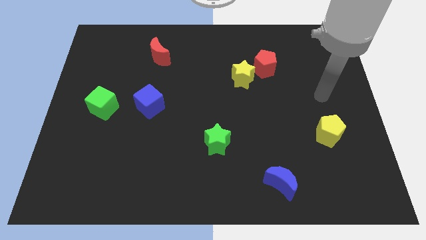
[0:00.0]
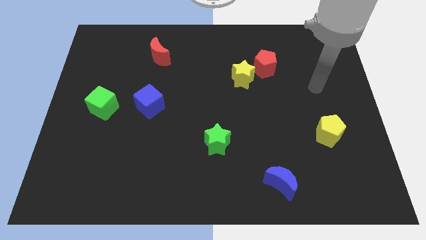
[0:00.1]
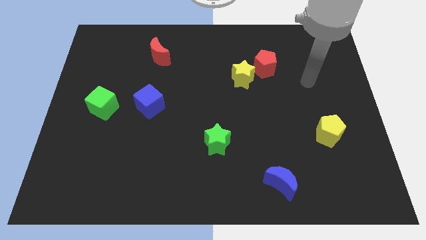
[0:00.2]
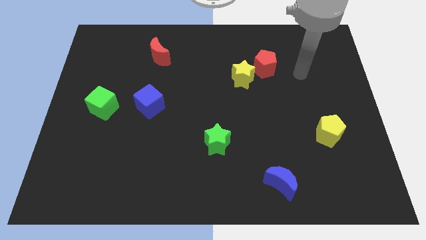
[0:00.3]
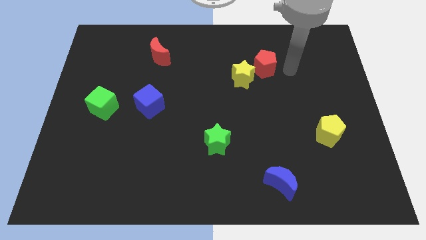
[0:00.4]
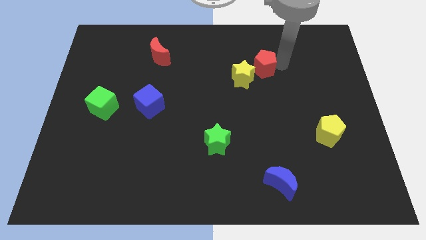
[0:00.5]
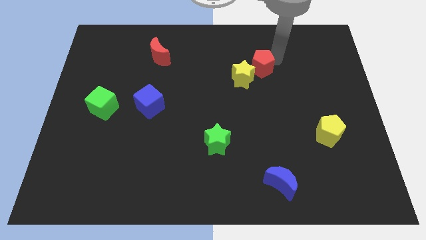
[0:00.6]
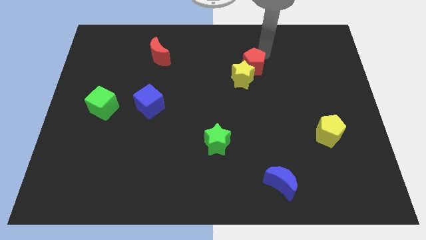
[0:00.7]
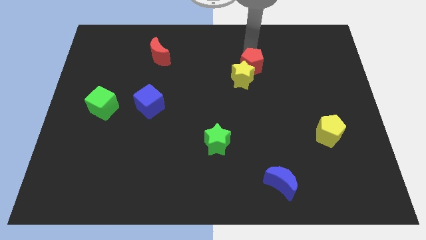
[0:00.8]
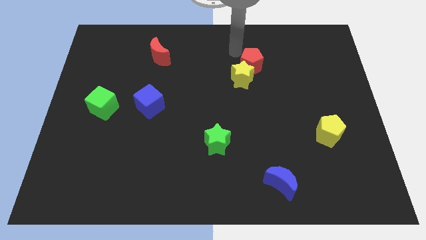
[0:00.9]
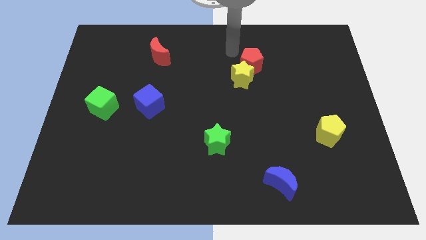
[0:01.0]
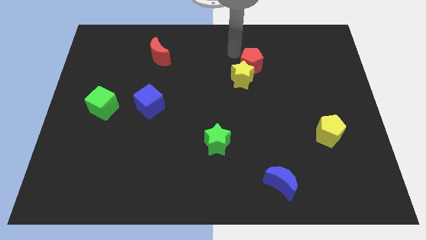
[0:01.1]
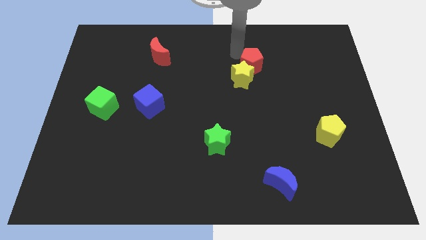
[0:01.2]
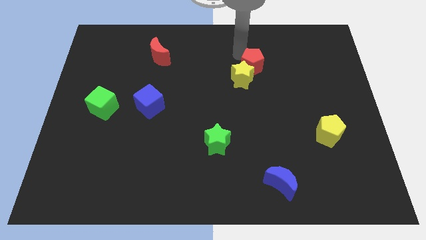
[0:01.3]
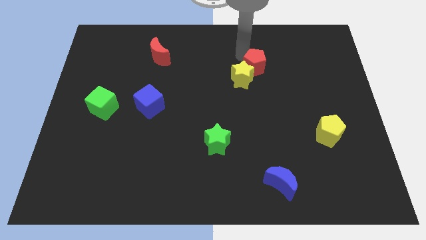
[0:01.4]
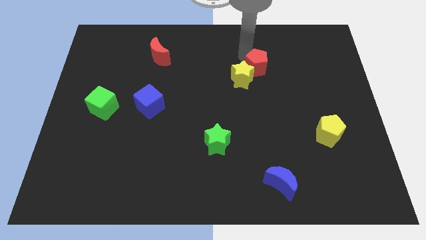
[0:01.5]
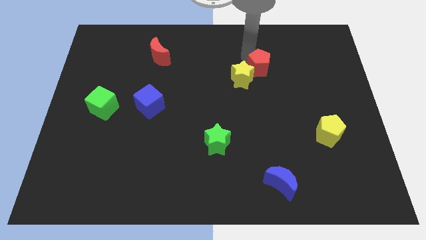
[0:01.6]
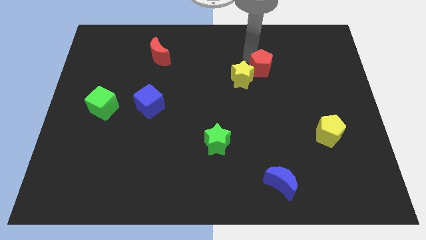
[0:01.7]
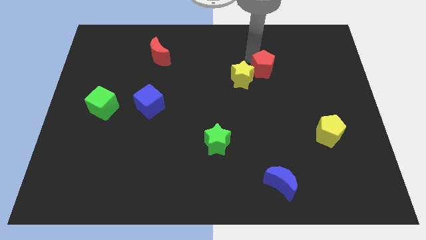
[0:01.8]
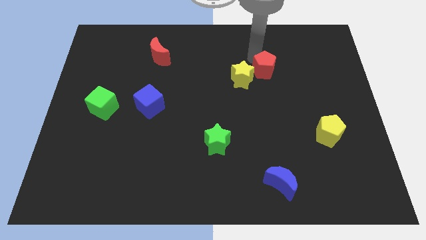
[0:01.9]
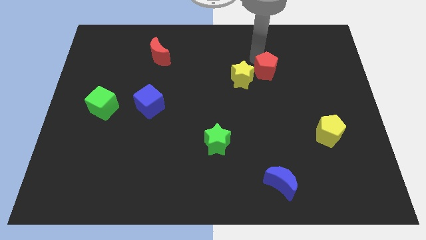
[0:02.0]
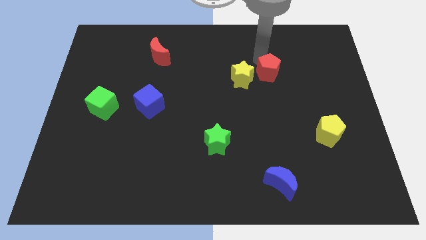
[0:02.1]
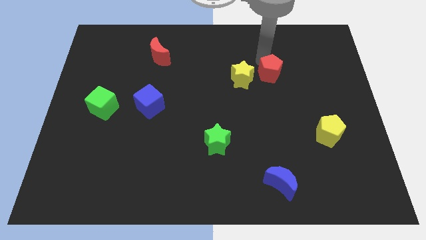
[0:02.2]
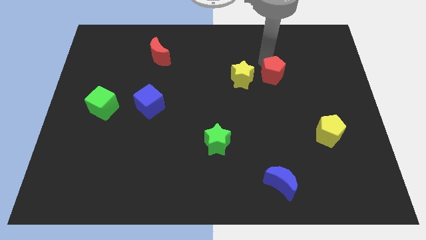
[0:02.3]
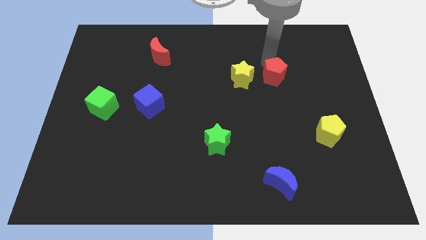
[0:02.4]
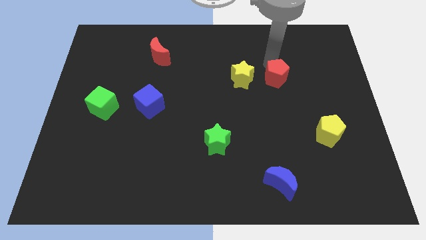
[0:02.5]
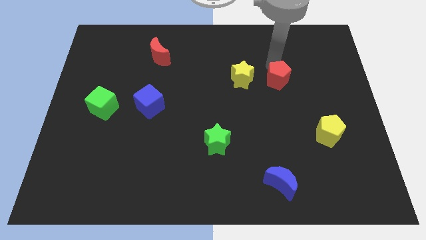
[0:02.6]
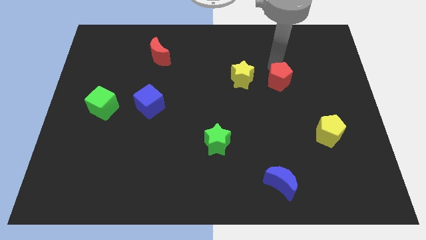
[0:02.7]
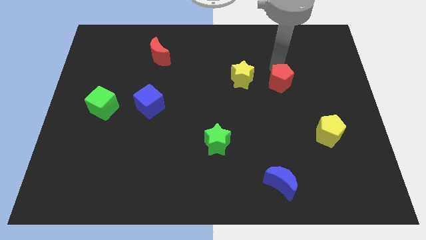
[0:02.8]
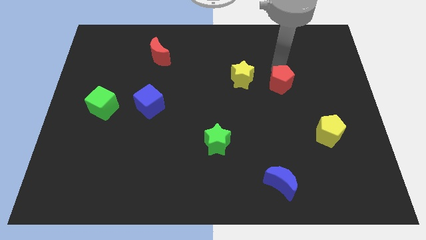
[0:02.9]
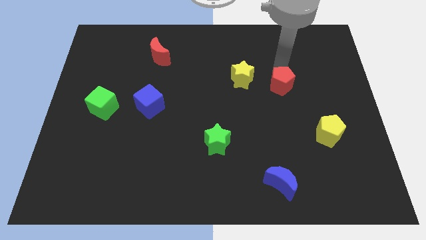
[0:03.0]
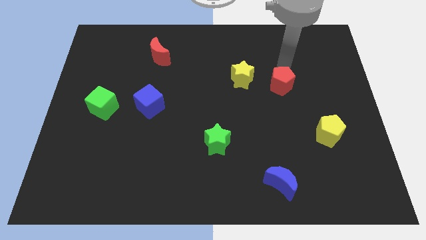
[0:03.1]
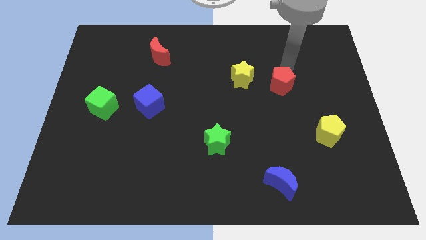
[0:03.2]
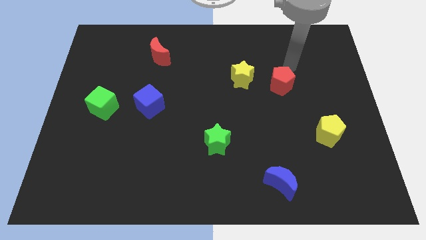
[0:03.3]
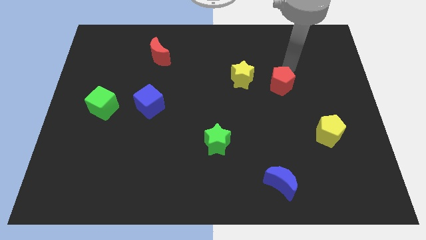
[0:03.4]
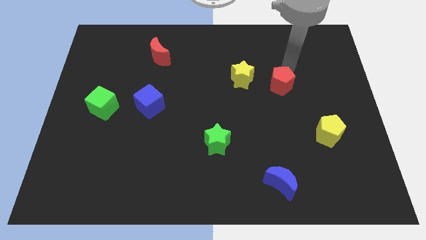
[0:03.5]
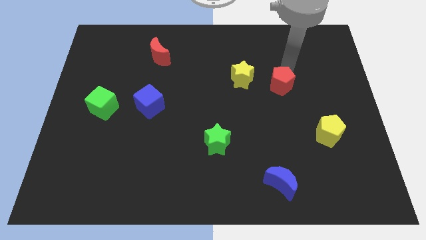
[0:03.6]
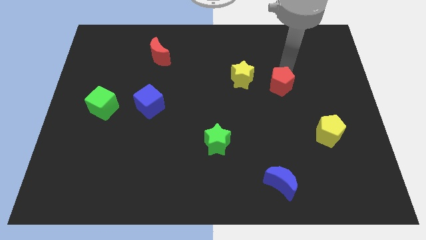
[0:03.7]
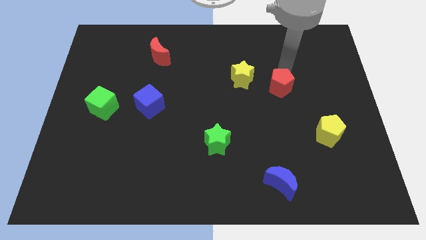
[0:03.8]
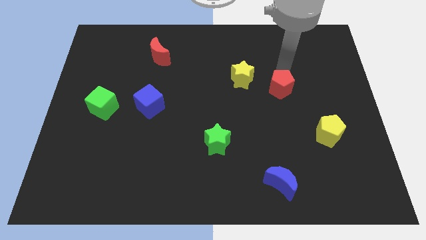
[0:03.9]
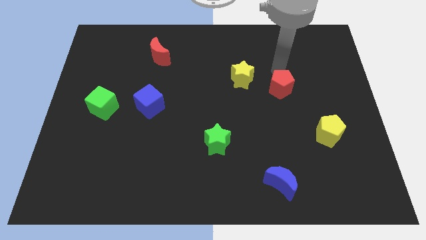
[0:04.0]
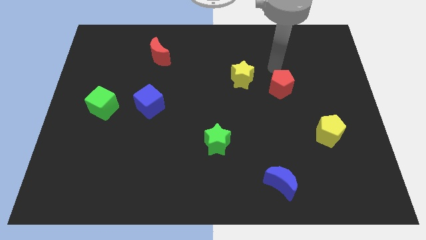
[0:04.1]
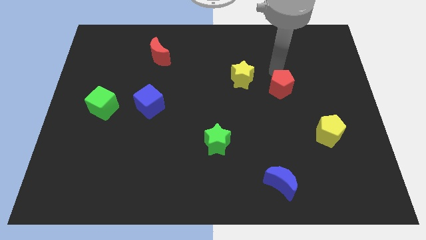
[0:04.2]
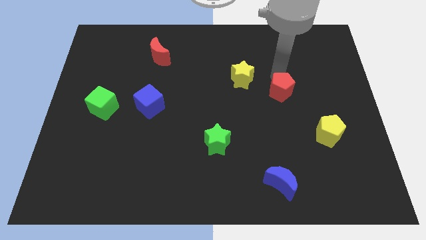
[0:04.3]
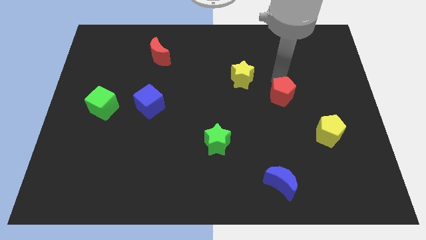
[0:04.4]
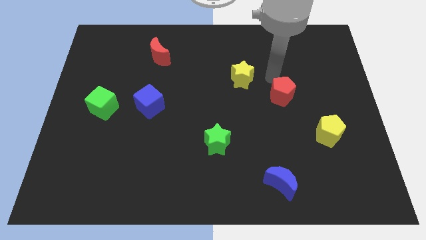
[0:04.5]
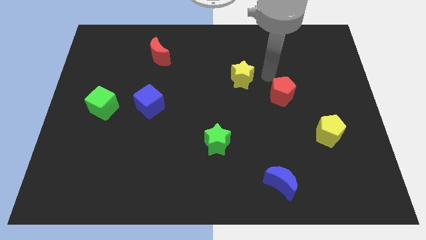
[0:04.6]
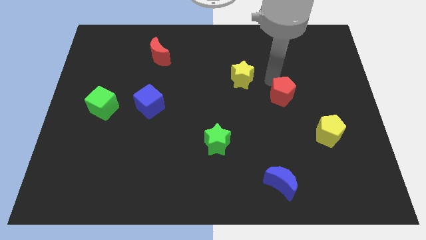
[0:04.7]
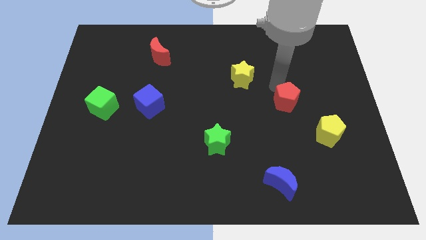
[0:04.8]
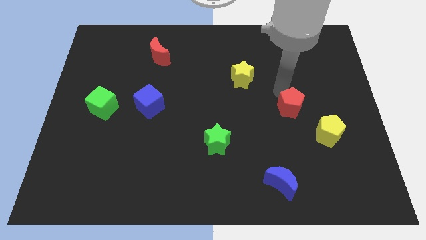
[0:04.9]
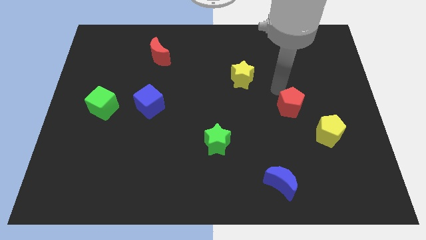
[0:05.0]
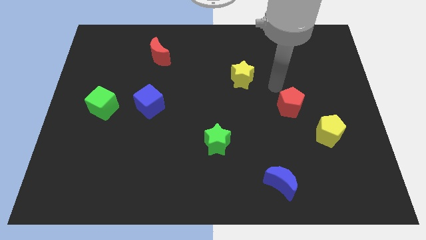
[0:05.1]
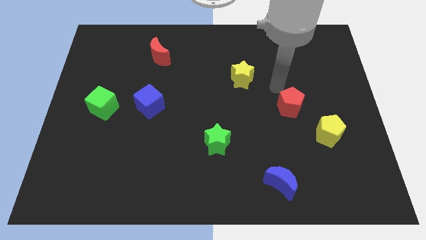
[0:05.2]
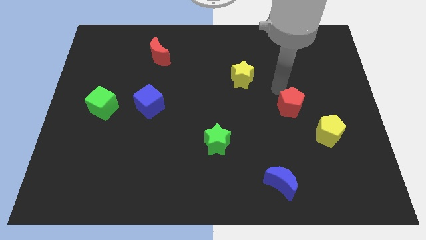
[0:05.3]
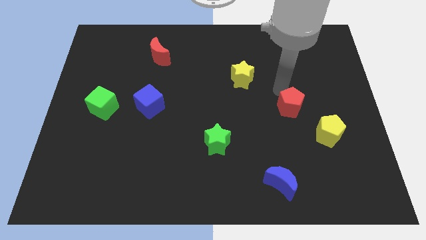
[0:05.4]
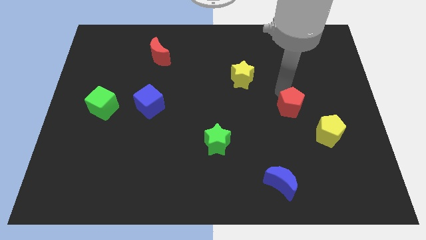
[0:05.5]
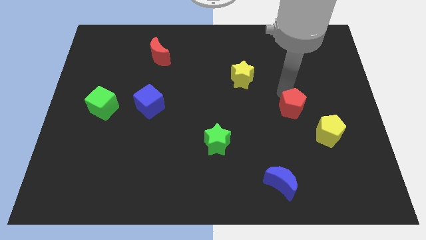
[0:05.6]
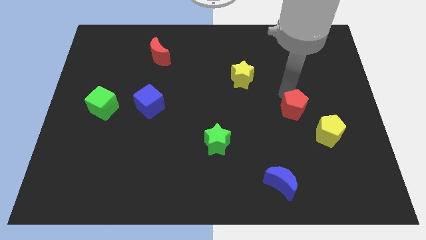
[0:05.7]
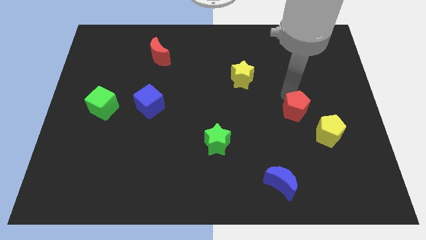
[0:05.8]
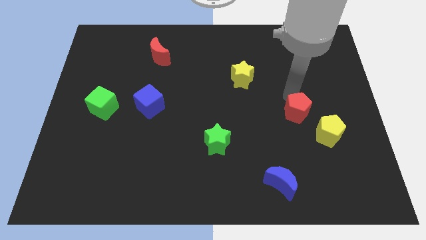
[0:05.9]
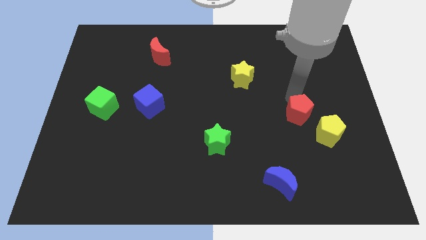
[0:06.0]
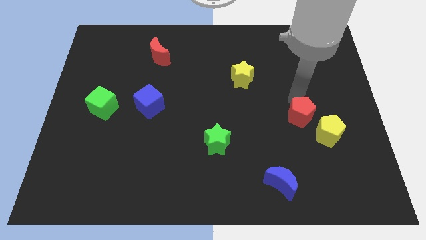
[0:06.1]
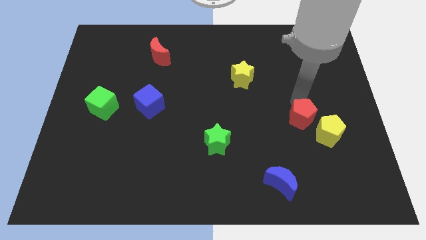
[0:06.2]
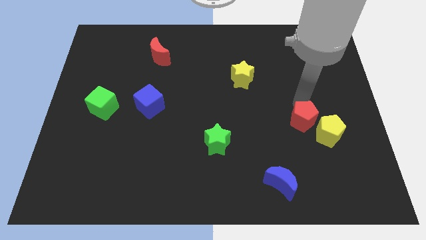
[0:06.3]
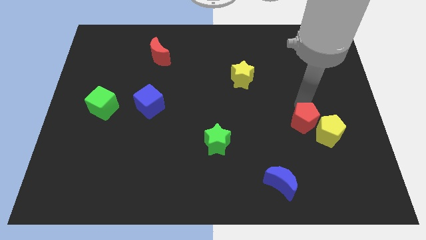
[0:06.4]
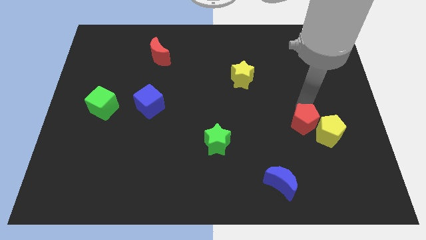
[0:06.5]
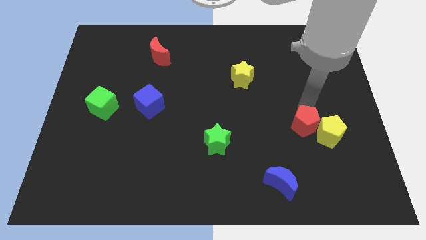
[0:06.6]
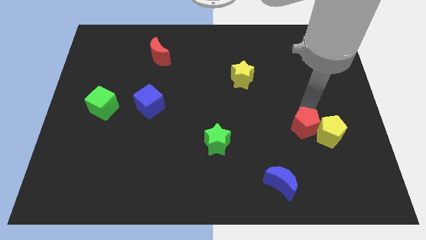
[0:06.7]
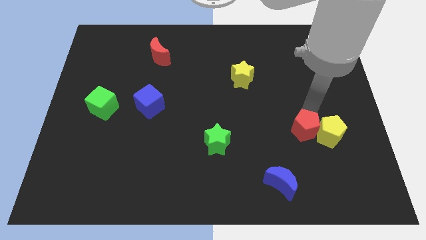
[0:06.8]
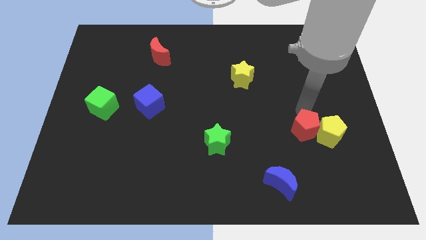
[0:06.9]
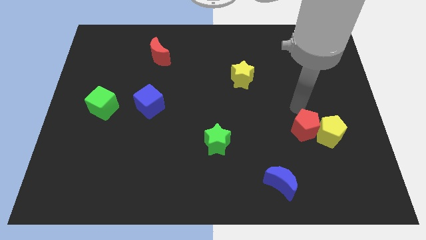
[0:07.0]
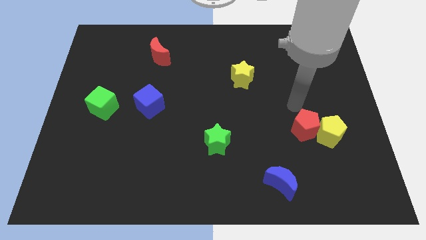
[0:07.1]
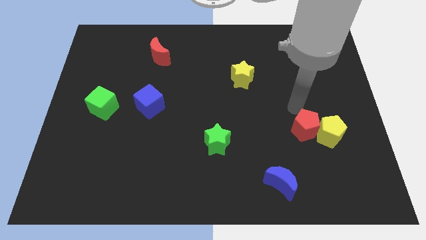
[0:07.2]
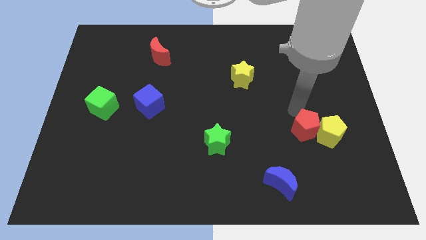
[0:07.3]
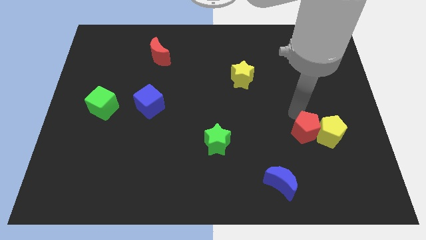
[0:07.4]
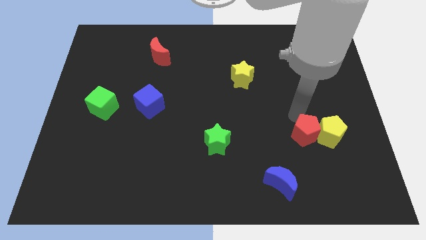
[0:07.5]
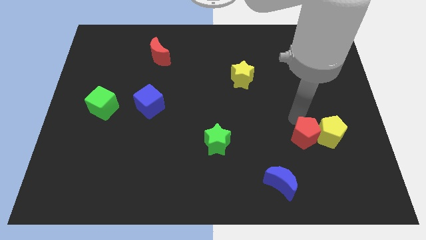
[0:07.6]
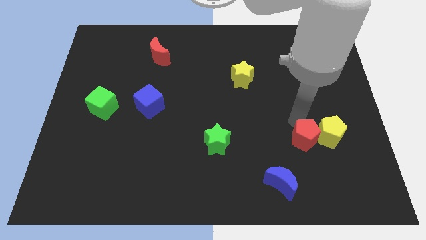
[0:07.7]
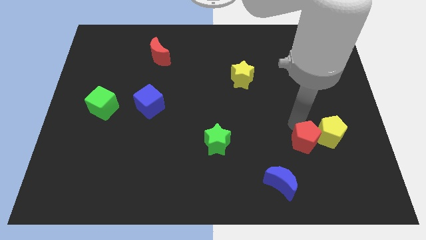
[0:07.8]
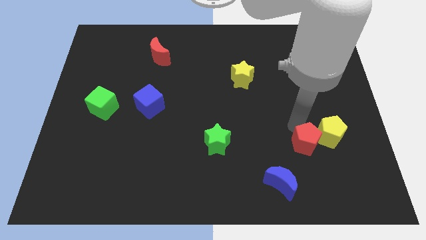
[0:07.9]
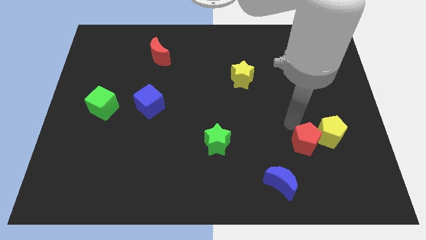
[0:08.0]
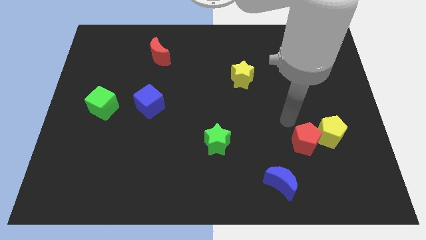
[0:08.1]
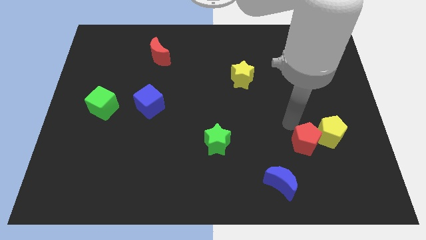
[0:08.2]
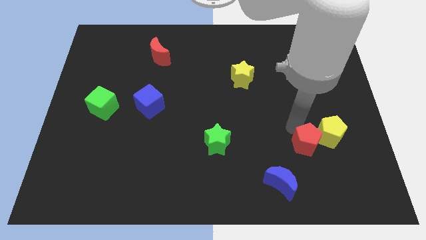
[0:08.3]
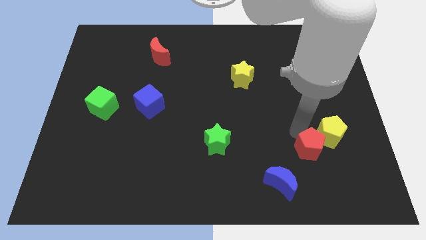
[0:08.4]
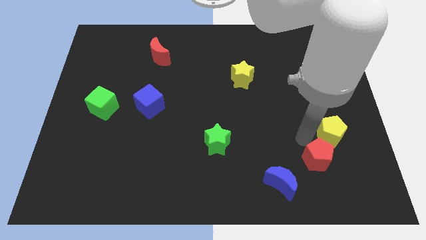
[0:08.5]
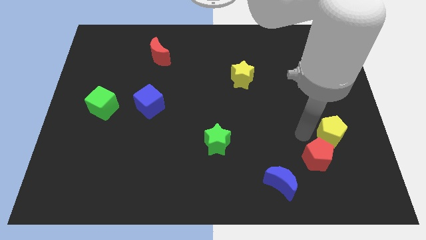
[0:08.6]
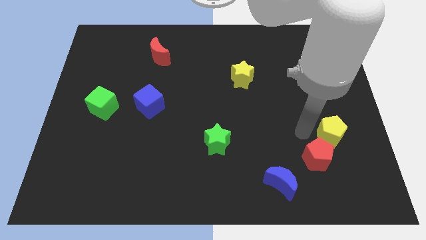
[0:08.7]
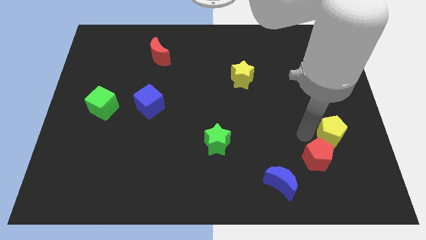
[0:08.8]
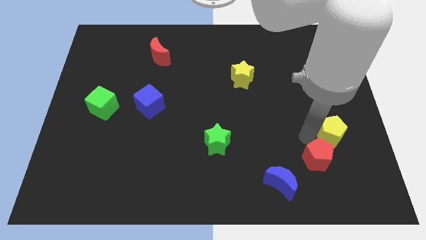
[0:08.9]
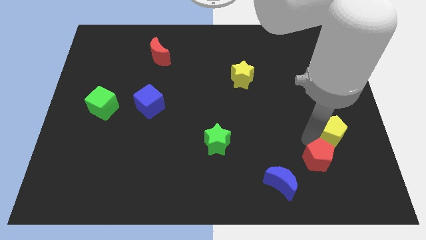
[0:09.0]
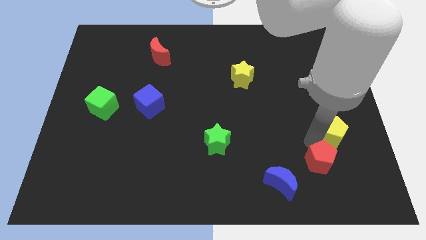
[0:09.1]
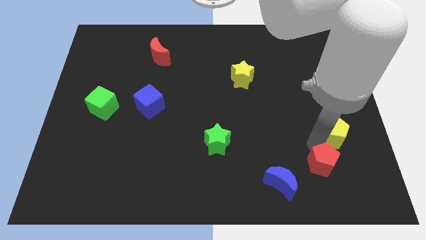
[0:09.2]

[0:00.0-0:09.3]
push the red pentagon to the right side of the blue moon
